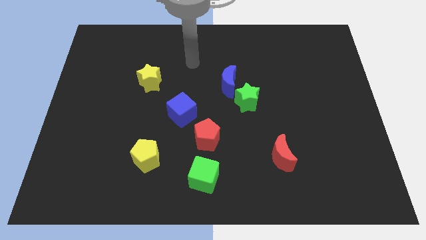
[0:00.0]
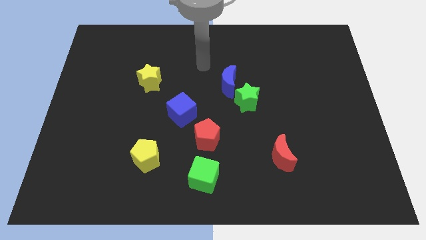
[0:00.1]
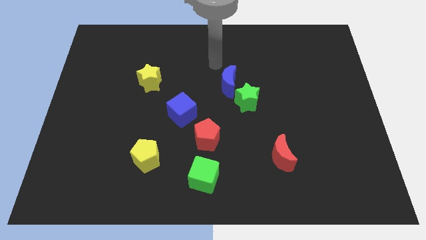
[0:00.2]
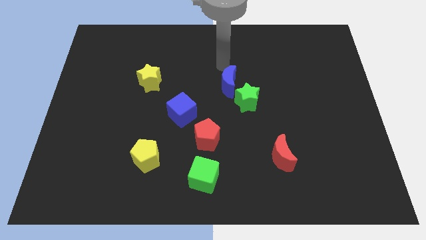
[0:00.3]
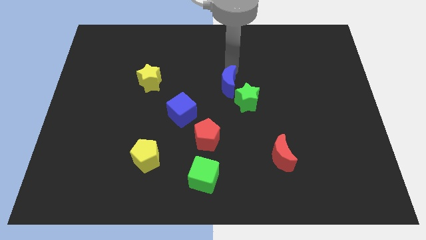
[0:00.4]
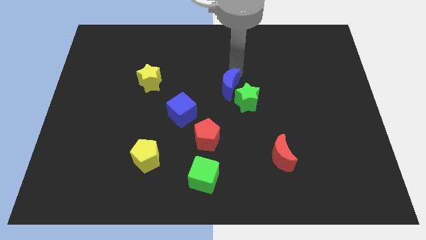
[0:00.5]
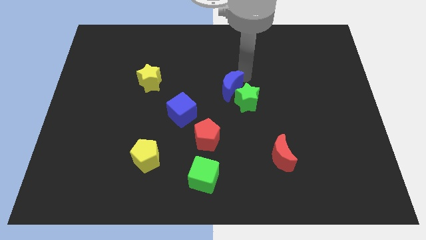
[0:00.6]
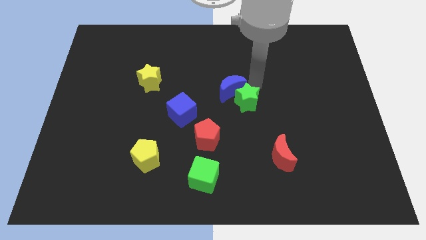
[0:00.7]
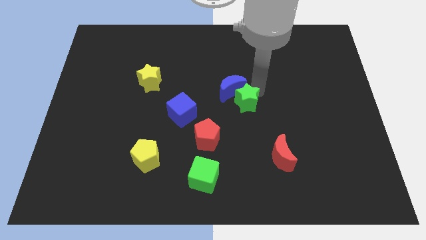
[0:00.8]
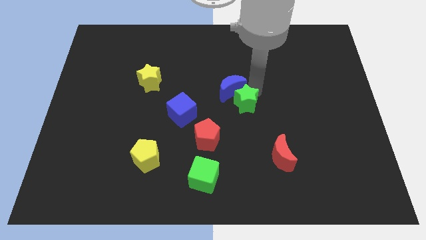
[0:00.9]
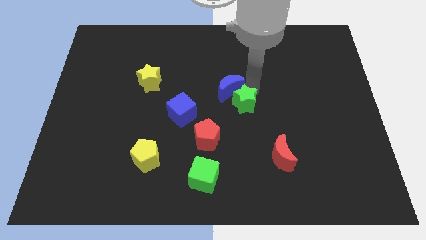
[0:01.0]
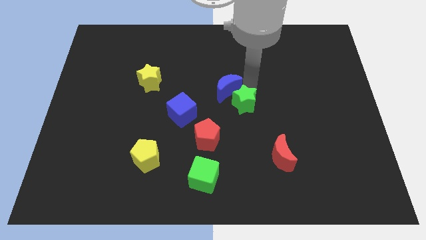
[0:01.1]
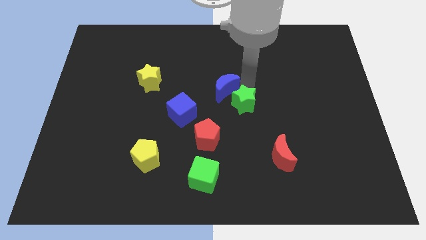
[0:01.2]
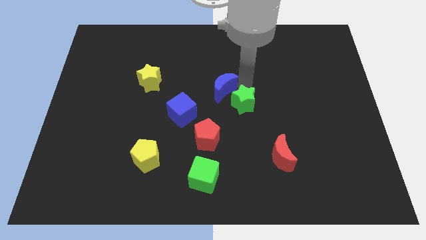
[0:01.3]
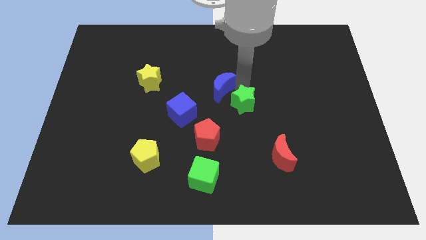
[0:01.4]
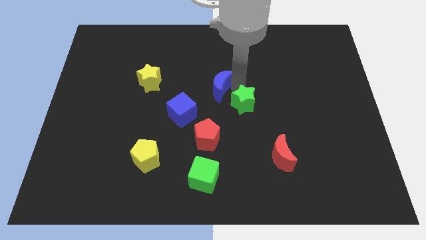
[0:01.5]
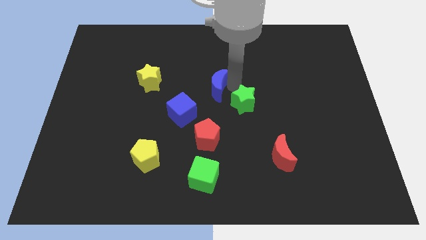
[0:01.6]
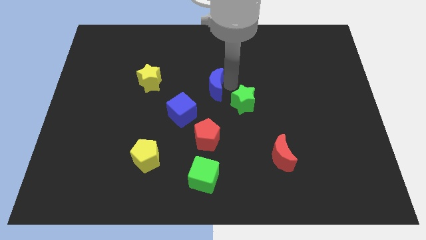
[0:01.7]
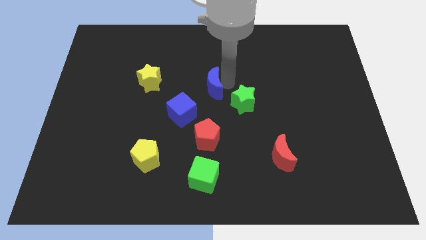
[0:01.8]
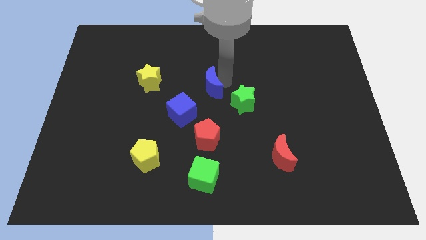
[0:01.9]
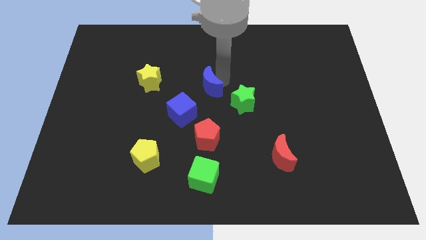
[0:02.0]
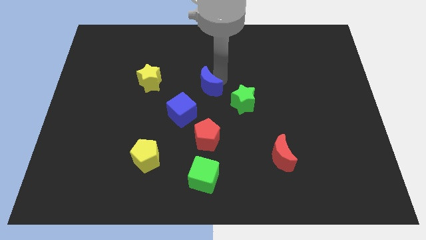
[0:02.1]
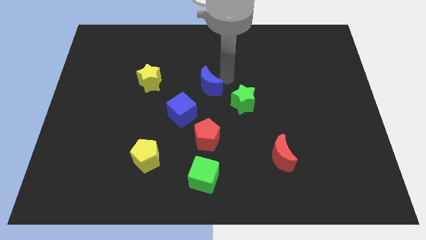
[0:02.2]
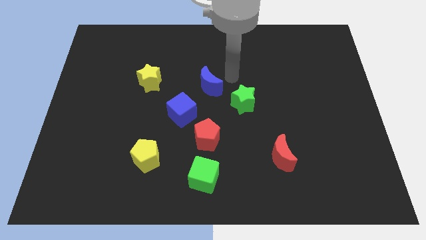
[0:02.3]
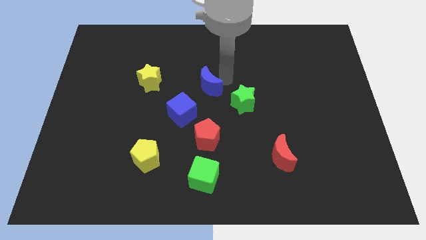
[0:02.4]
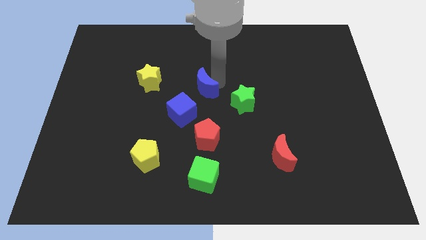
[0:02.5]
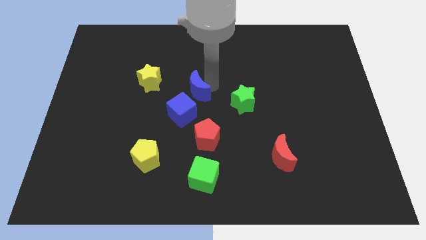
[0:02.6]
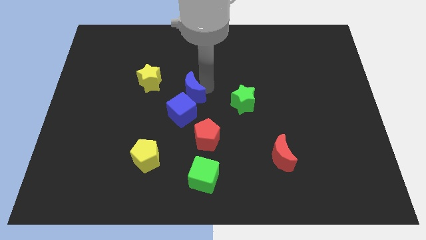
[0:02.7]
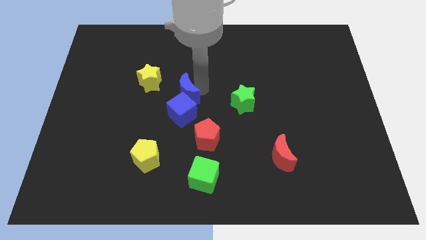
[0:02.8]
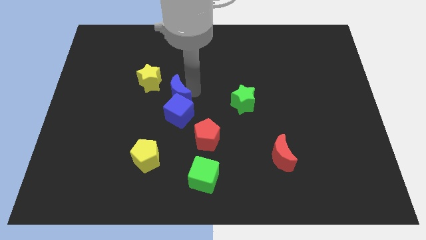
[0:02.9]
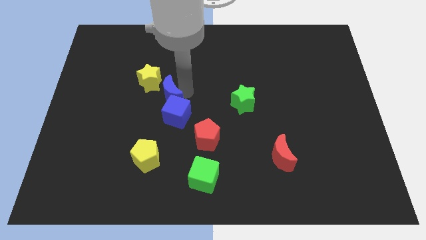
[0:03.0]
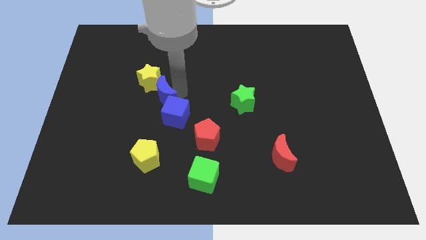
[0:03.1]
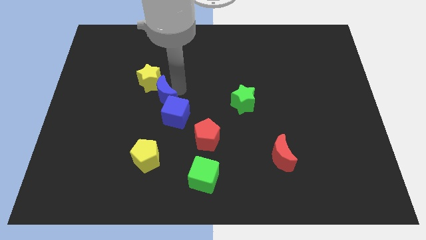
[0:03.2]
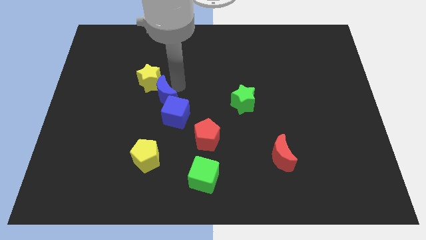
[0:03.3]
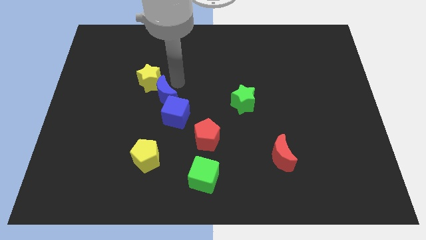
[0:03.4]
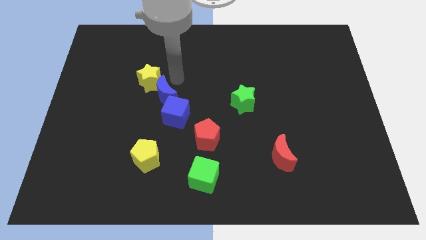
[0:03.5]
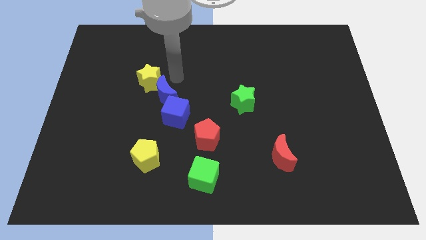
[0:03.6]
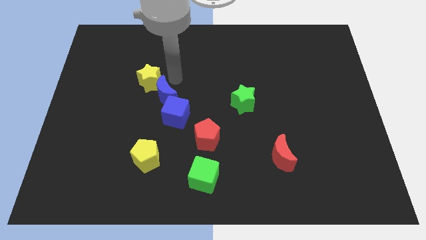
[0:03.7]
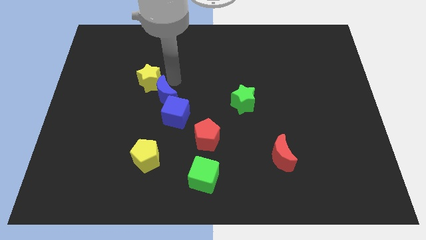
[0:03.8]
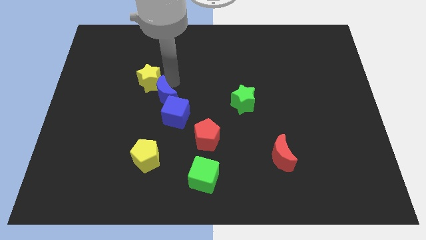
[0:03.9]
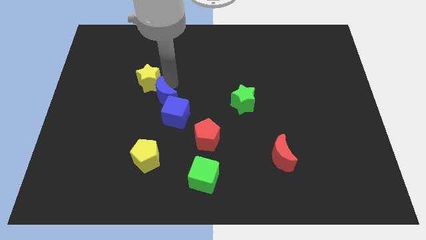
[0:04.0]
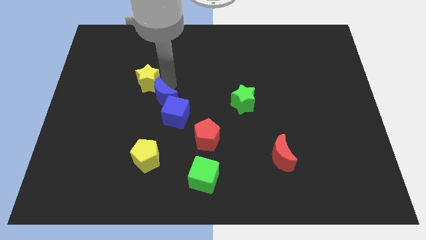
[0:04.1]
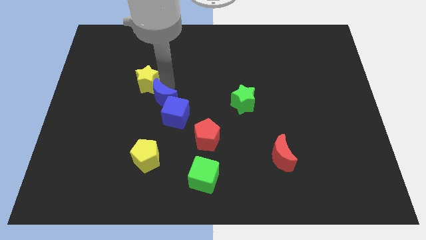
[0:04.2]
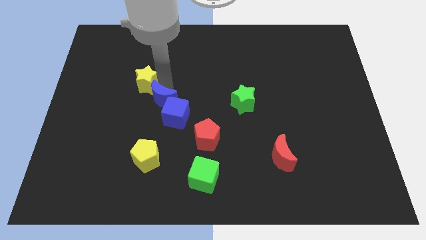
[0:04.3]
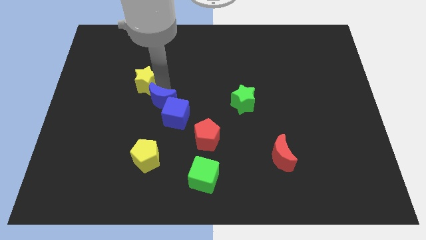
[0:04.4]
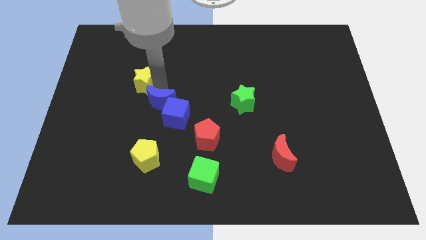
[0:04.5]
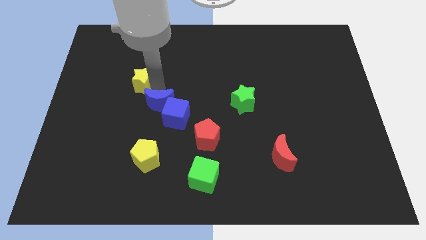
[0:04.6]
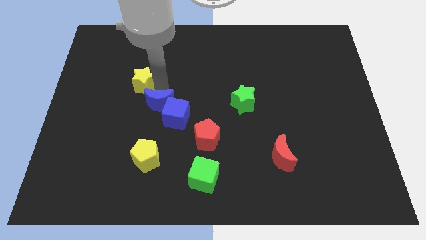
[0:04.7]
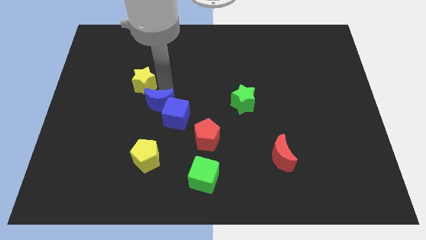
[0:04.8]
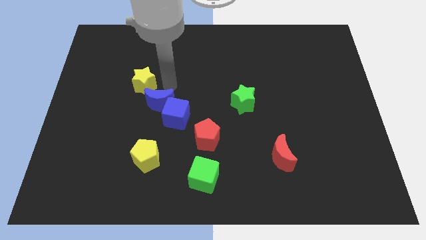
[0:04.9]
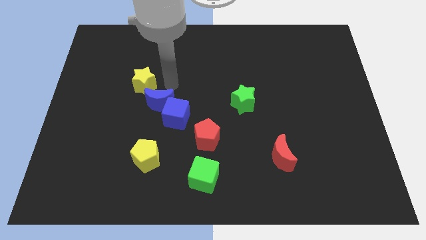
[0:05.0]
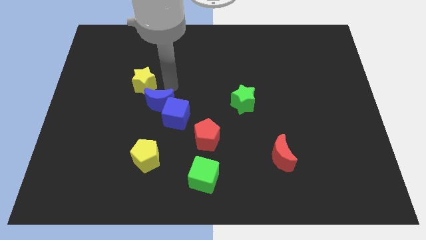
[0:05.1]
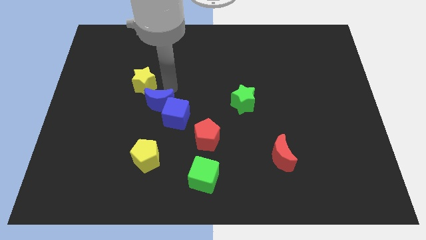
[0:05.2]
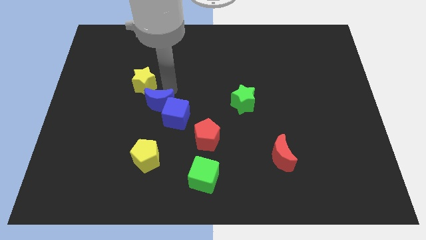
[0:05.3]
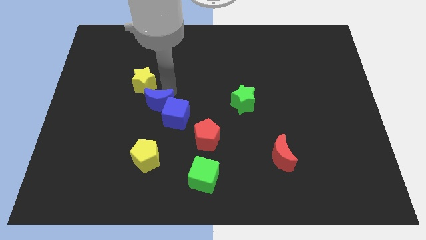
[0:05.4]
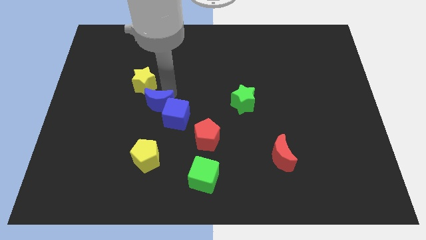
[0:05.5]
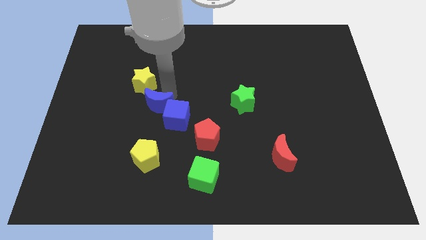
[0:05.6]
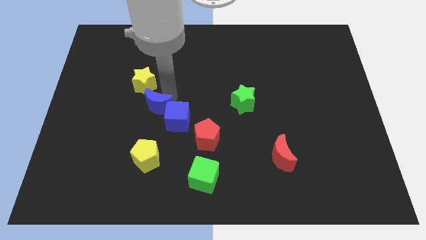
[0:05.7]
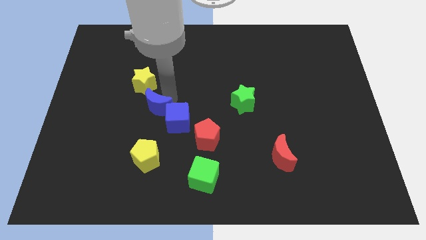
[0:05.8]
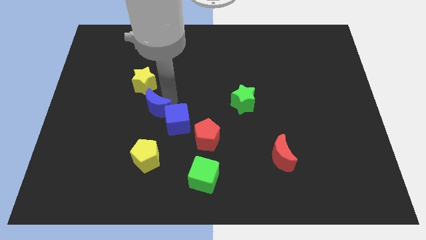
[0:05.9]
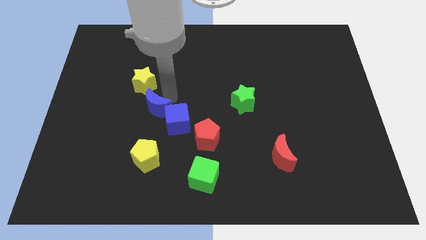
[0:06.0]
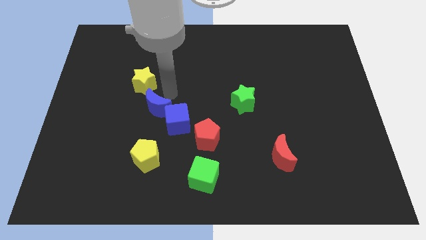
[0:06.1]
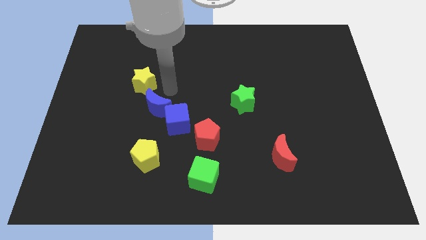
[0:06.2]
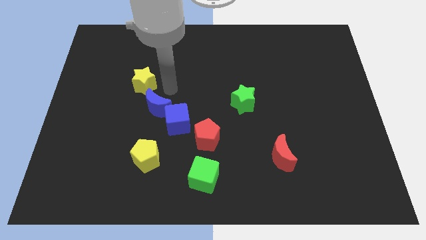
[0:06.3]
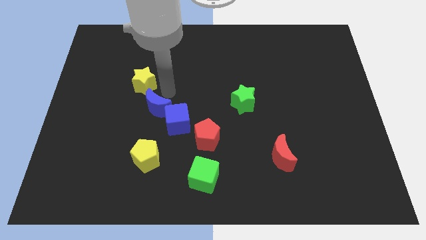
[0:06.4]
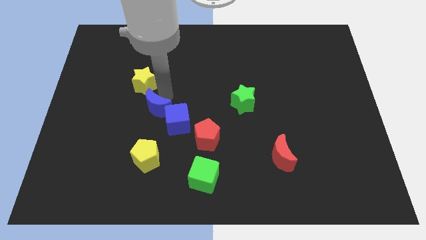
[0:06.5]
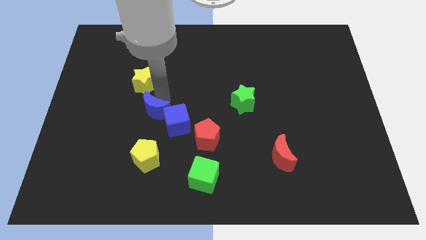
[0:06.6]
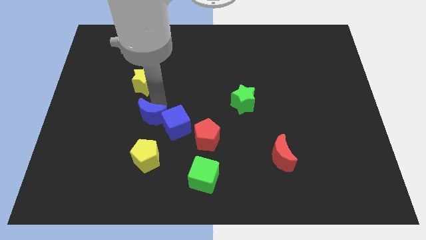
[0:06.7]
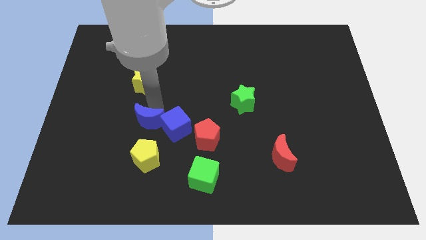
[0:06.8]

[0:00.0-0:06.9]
push the blue moon downwards and then left

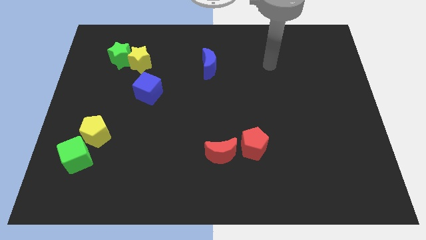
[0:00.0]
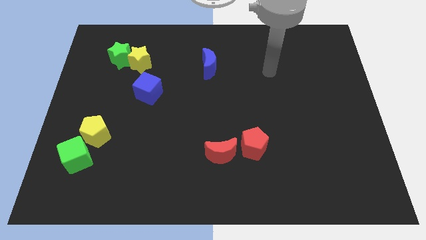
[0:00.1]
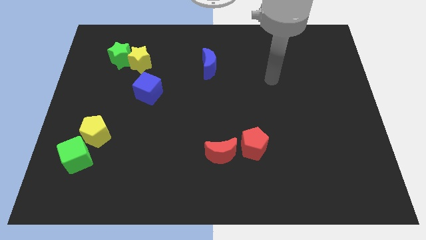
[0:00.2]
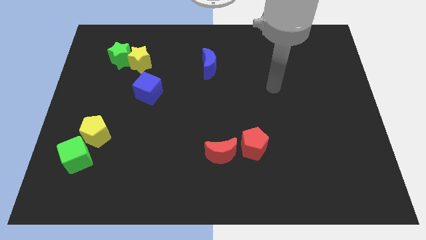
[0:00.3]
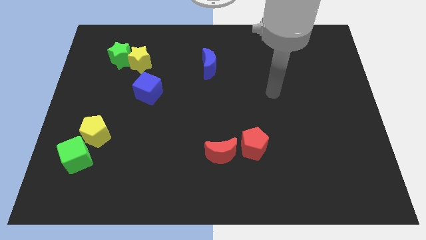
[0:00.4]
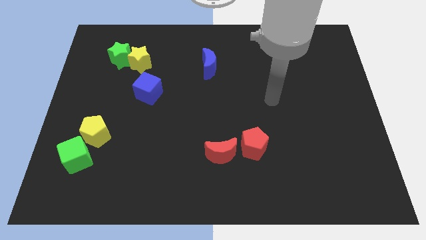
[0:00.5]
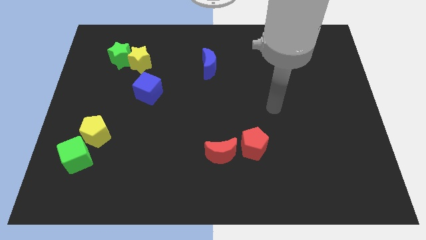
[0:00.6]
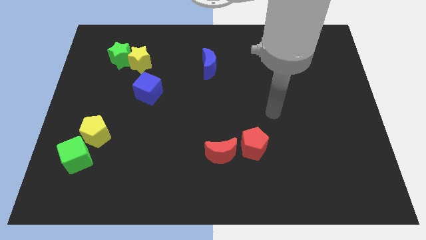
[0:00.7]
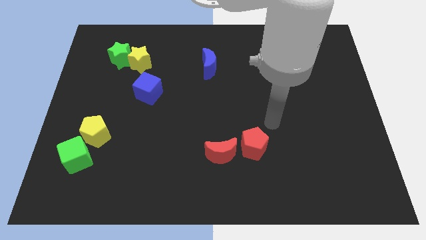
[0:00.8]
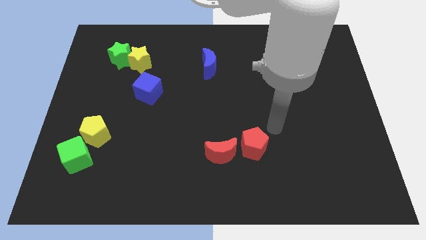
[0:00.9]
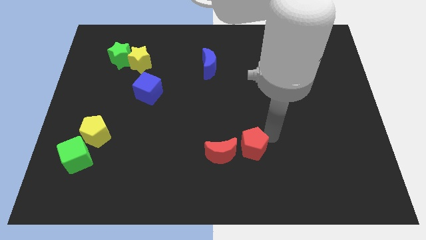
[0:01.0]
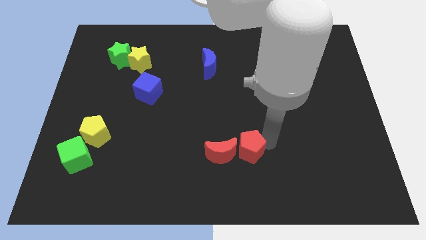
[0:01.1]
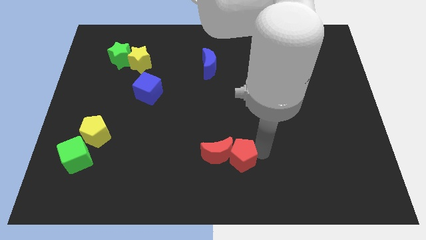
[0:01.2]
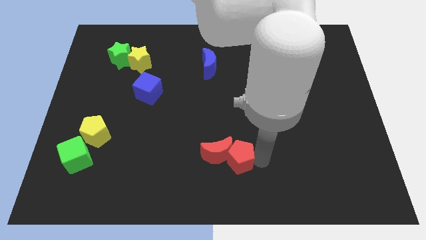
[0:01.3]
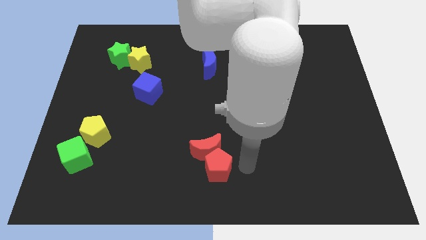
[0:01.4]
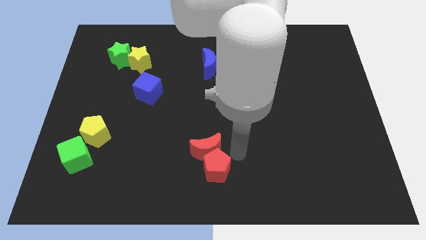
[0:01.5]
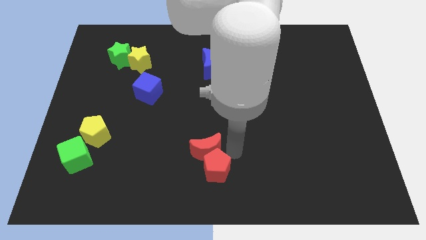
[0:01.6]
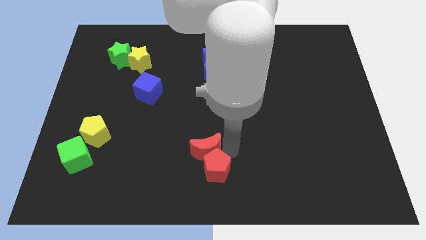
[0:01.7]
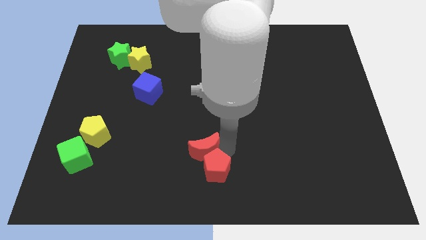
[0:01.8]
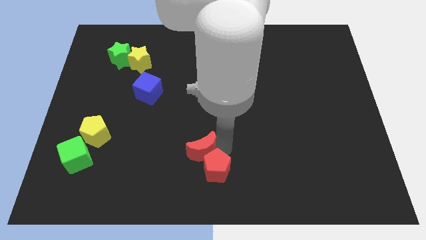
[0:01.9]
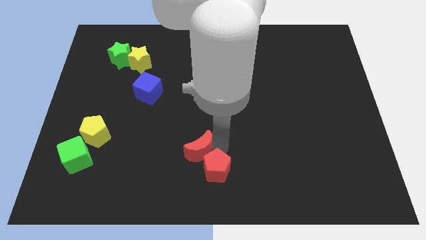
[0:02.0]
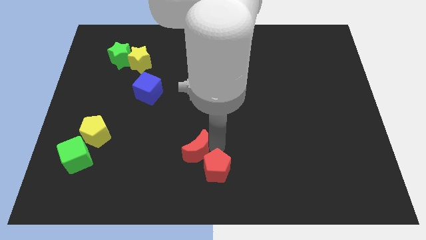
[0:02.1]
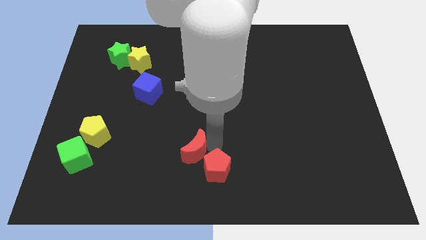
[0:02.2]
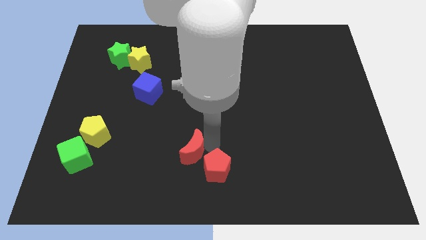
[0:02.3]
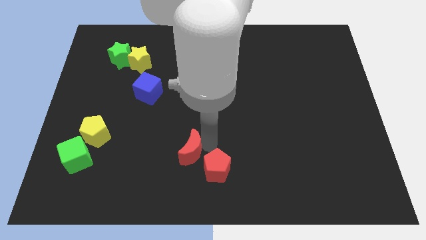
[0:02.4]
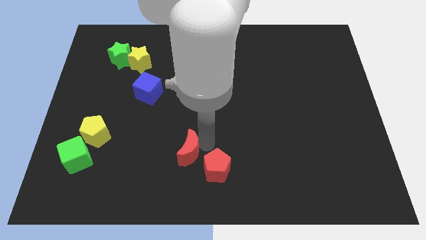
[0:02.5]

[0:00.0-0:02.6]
slide the red moon left a bit
